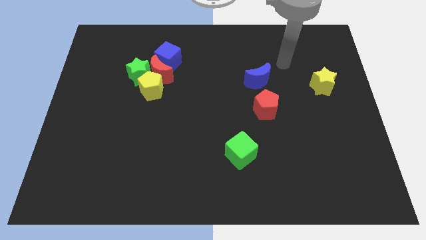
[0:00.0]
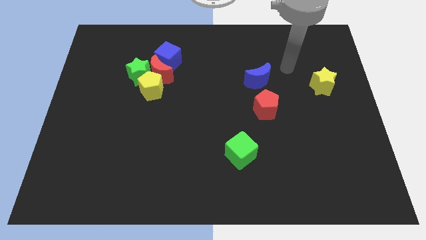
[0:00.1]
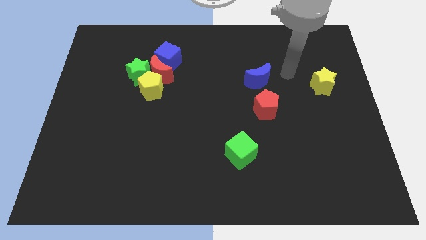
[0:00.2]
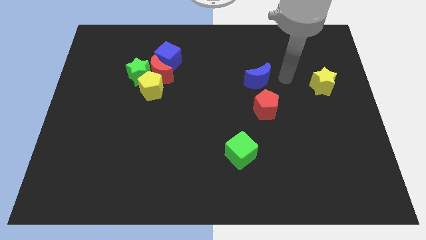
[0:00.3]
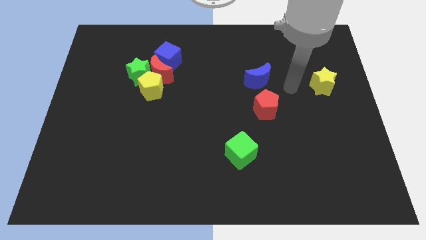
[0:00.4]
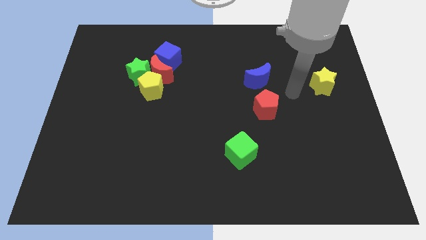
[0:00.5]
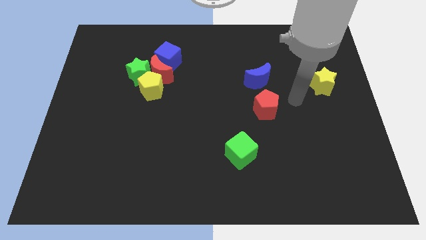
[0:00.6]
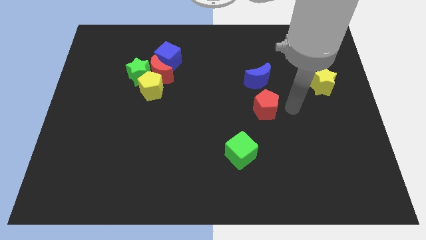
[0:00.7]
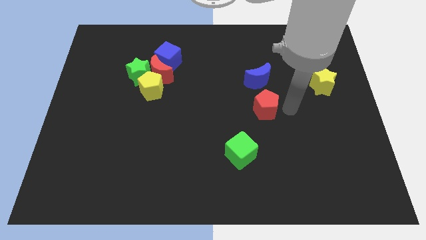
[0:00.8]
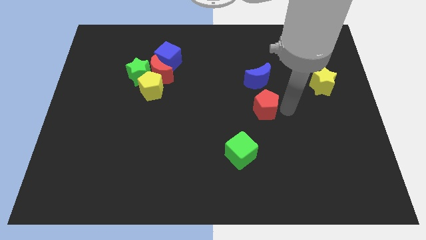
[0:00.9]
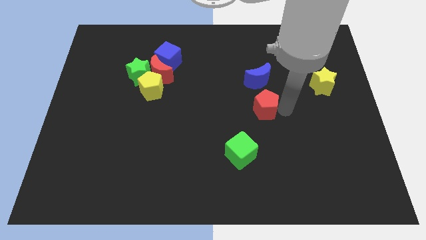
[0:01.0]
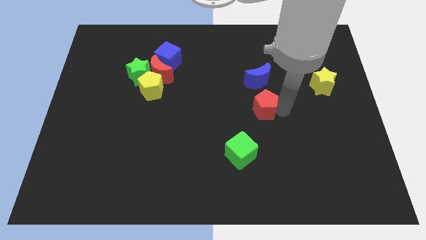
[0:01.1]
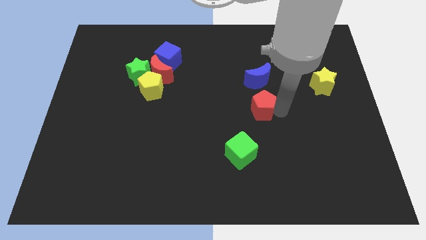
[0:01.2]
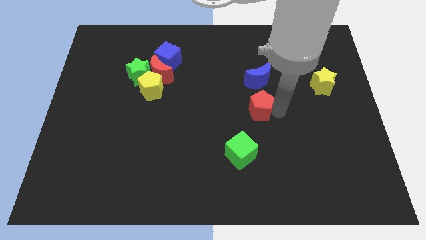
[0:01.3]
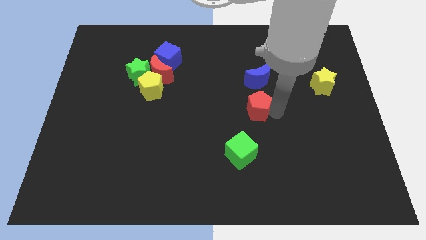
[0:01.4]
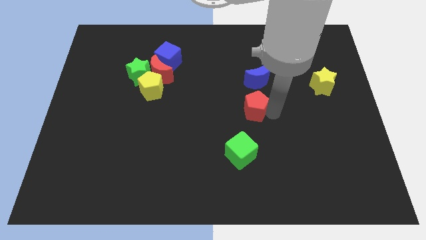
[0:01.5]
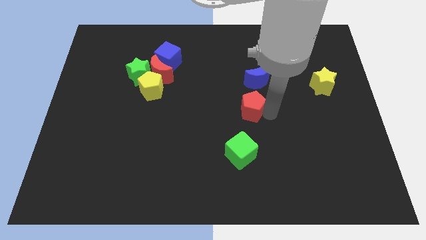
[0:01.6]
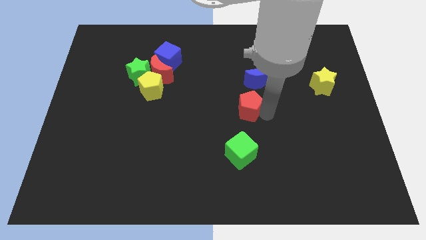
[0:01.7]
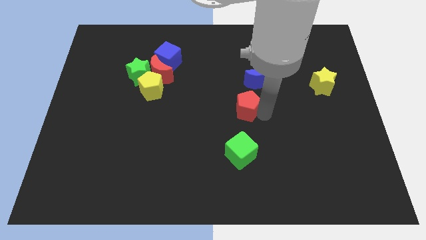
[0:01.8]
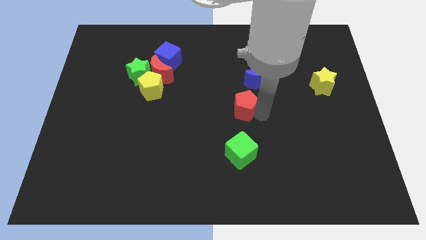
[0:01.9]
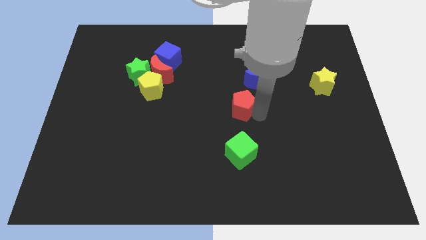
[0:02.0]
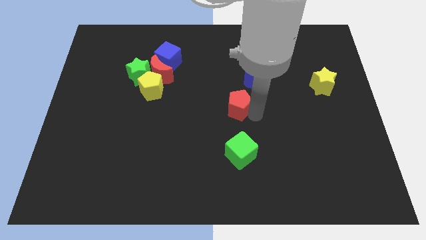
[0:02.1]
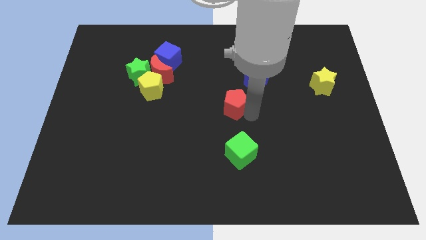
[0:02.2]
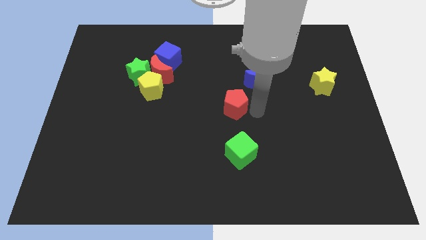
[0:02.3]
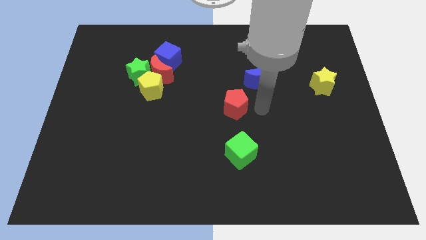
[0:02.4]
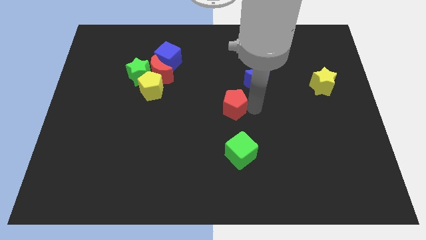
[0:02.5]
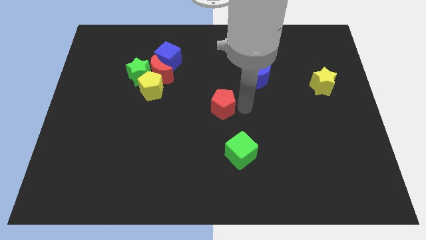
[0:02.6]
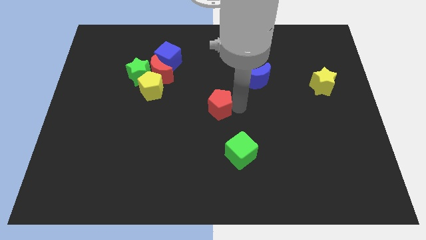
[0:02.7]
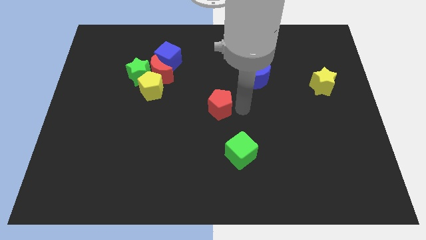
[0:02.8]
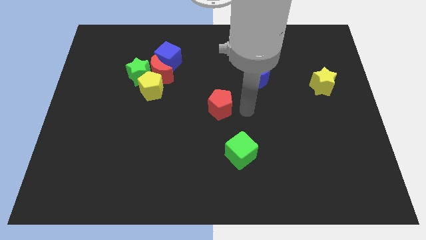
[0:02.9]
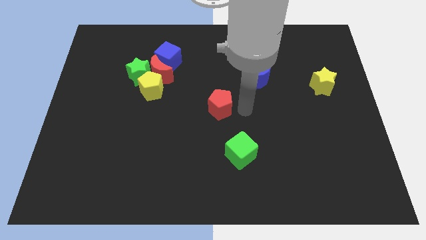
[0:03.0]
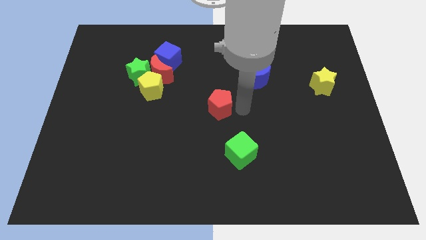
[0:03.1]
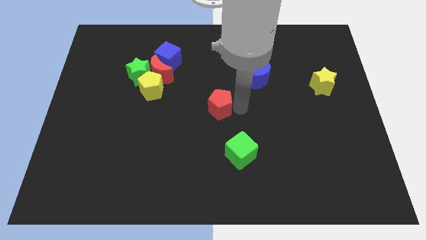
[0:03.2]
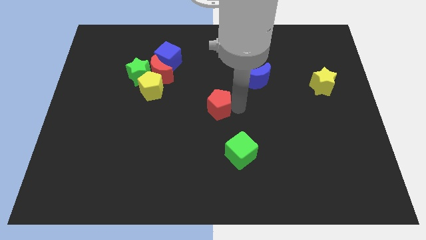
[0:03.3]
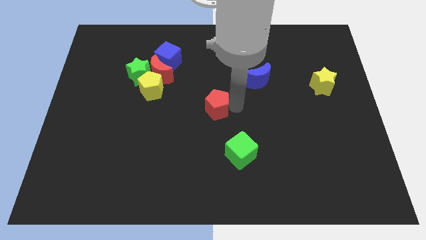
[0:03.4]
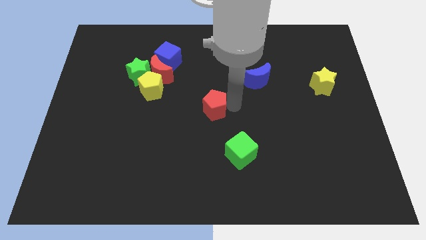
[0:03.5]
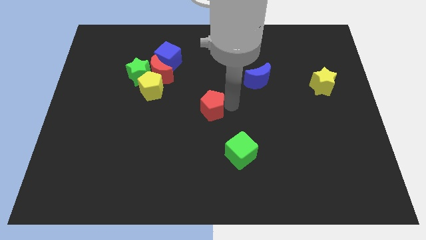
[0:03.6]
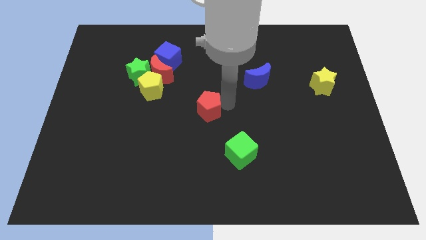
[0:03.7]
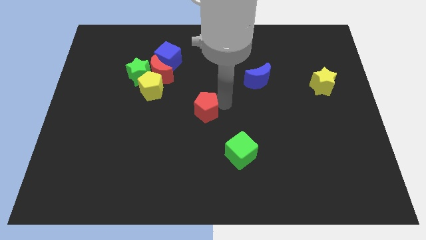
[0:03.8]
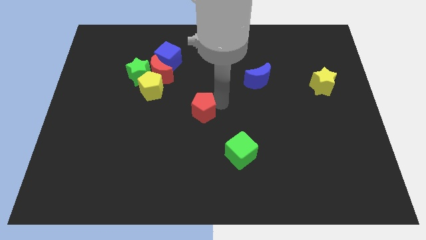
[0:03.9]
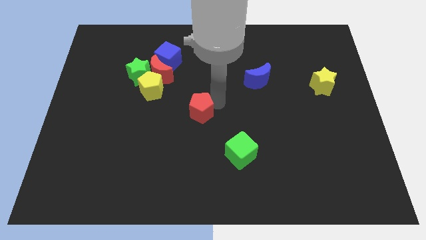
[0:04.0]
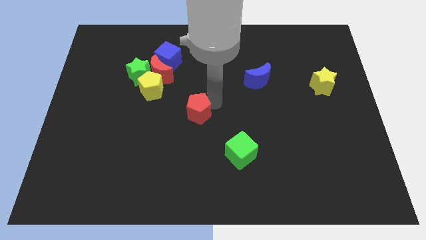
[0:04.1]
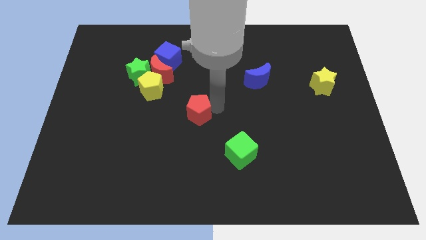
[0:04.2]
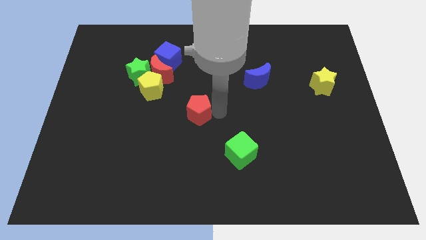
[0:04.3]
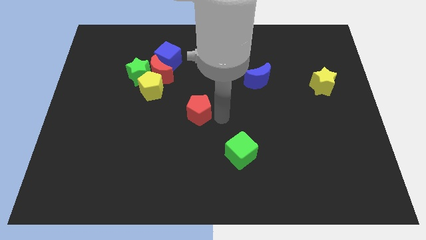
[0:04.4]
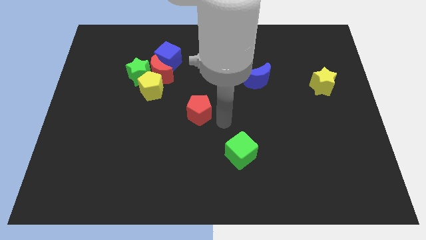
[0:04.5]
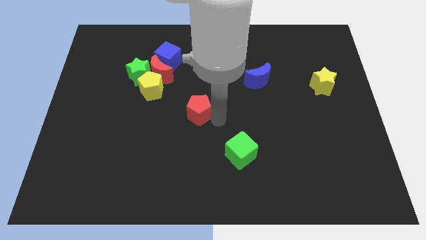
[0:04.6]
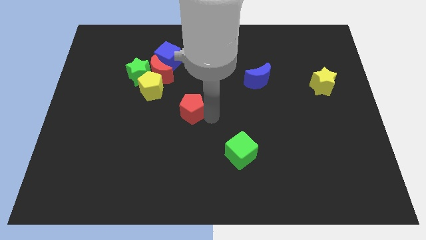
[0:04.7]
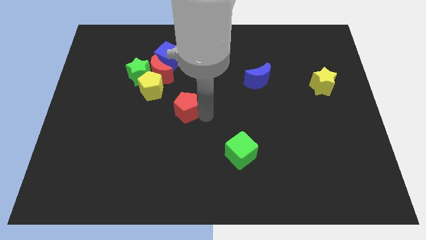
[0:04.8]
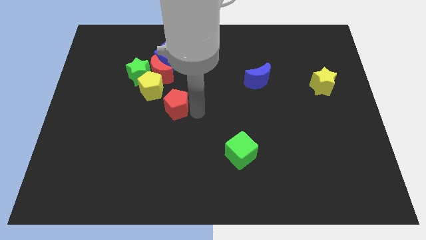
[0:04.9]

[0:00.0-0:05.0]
push the red pentagon to the left

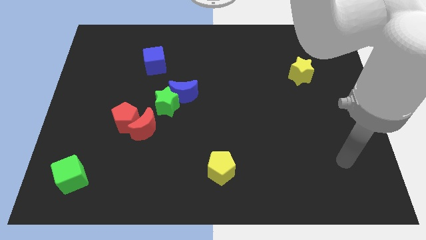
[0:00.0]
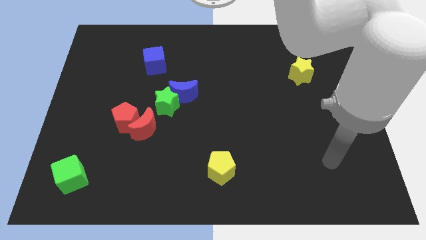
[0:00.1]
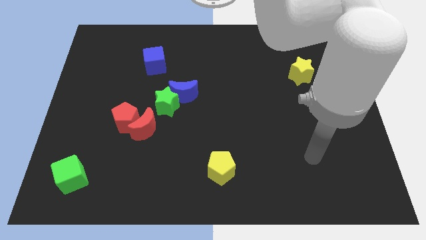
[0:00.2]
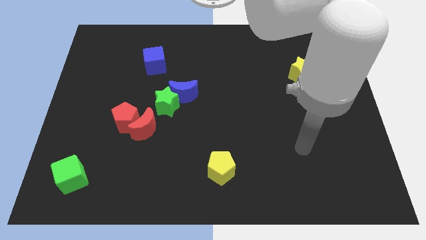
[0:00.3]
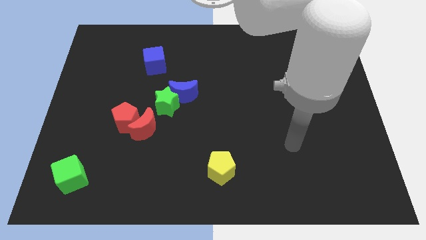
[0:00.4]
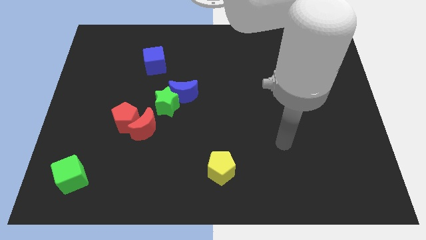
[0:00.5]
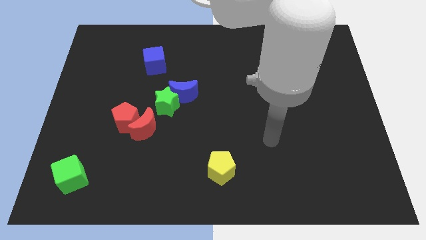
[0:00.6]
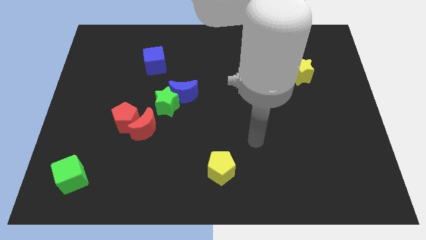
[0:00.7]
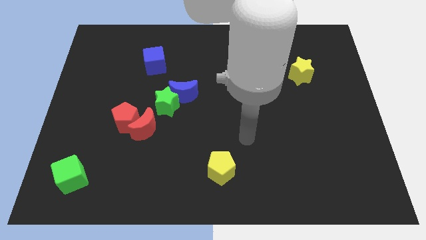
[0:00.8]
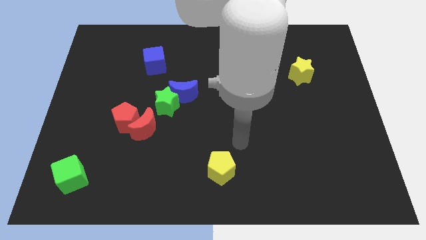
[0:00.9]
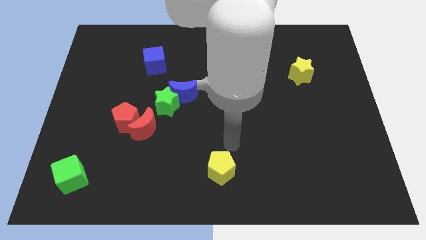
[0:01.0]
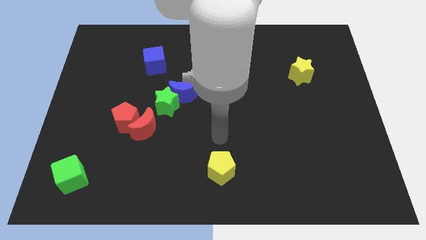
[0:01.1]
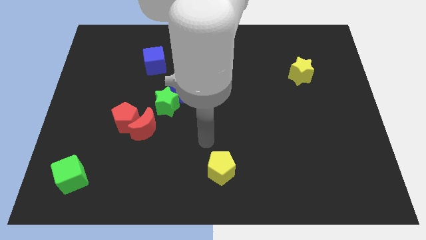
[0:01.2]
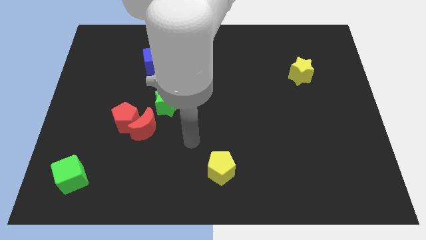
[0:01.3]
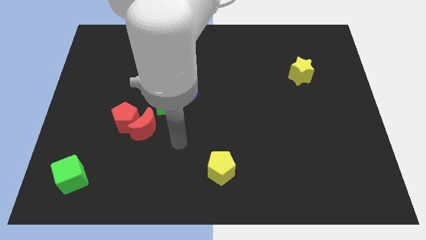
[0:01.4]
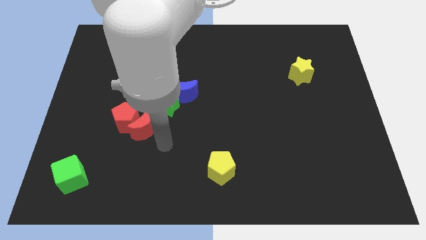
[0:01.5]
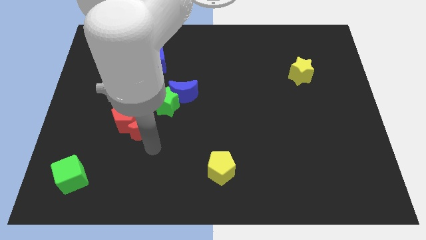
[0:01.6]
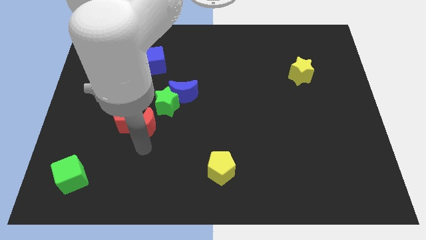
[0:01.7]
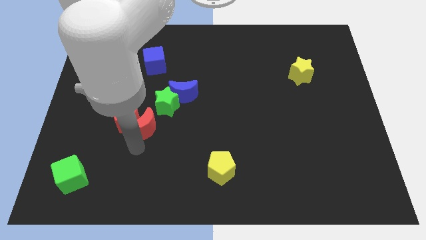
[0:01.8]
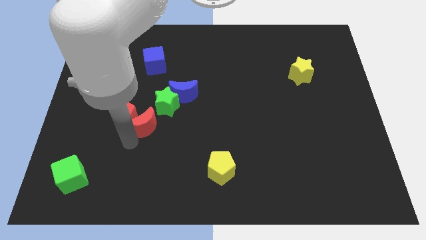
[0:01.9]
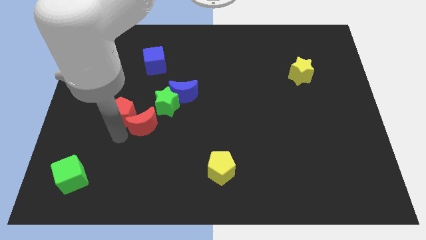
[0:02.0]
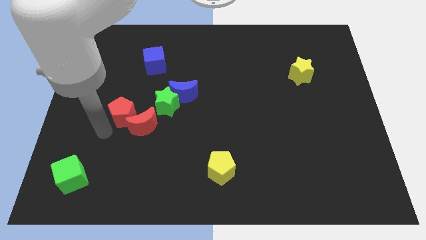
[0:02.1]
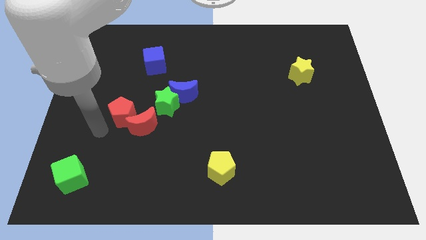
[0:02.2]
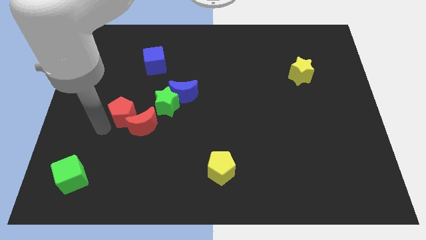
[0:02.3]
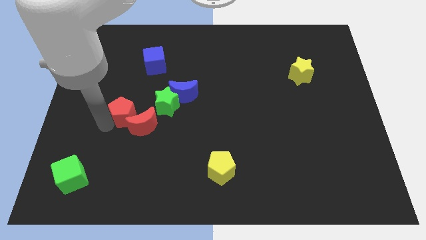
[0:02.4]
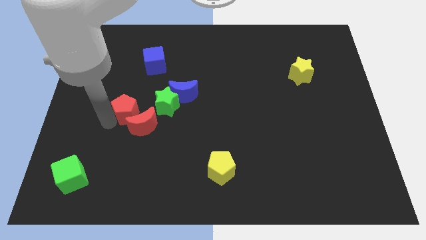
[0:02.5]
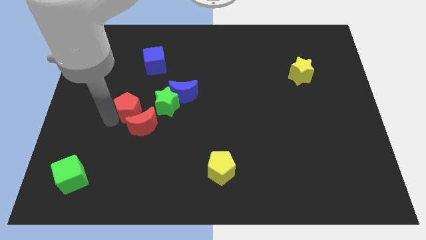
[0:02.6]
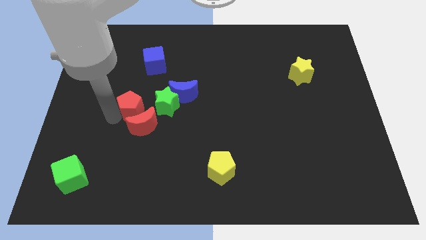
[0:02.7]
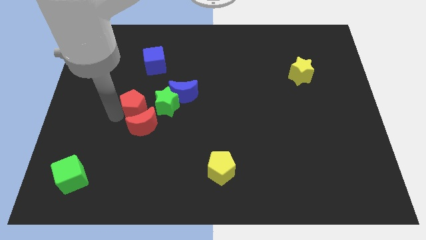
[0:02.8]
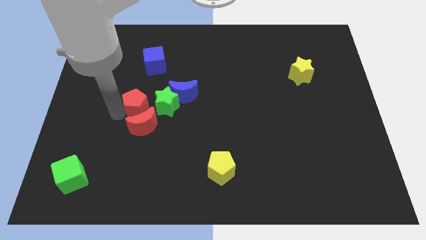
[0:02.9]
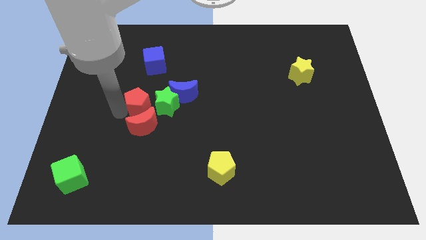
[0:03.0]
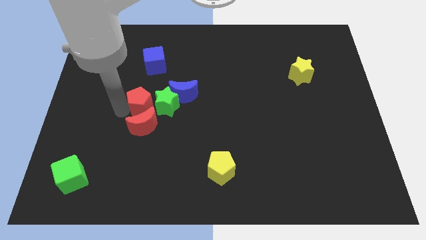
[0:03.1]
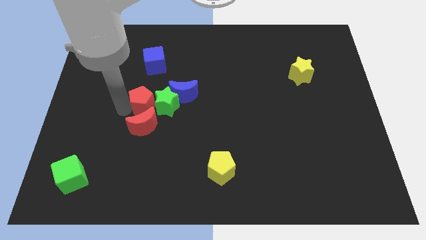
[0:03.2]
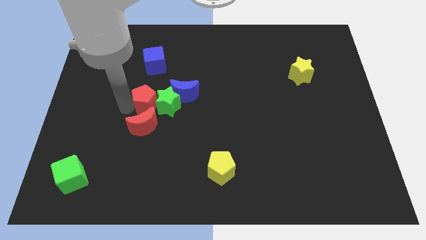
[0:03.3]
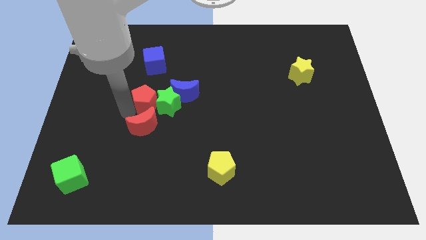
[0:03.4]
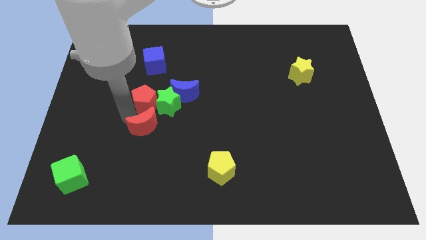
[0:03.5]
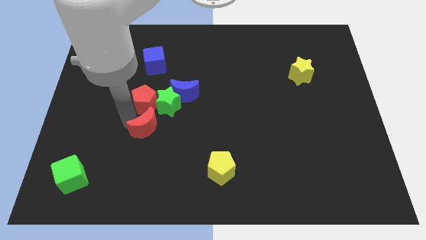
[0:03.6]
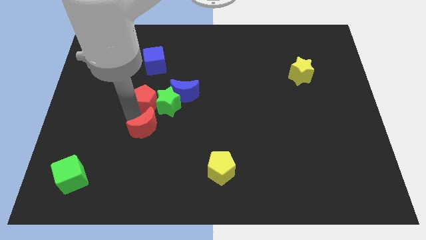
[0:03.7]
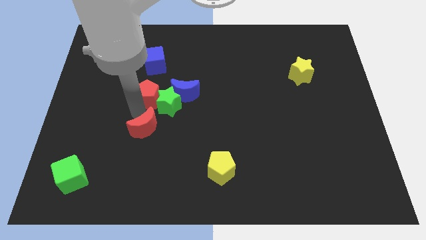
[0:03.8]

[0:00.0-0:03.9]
slightly slide the red pentagon diagonally upwards and right
